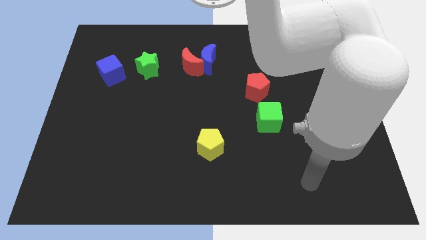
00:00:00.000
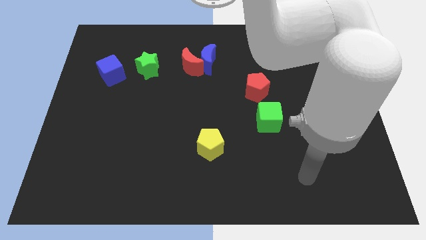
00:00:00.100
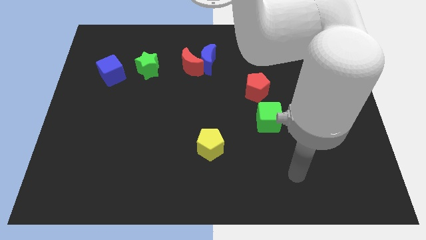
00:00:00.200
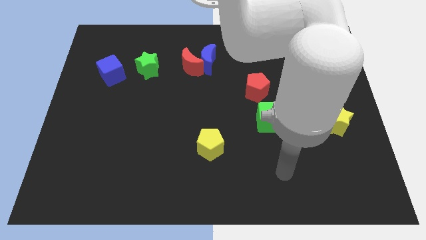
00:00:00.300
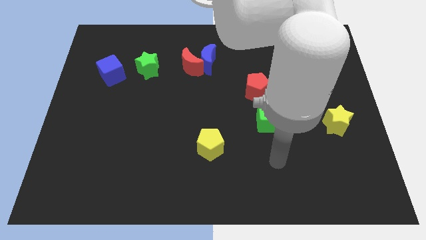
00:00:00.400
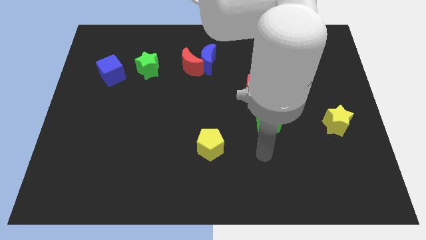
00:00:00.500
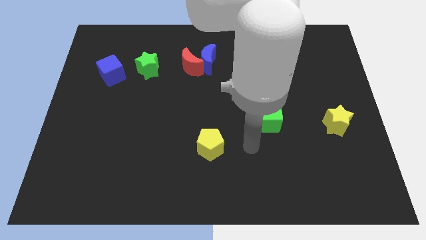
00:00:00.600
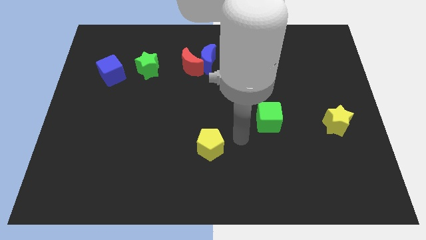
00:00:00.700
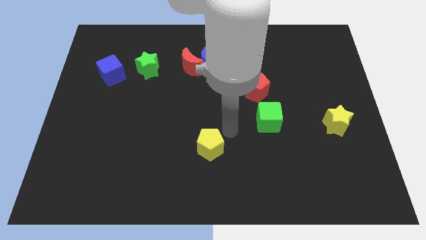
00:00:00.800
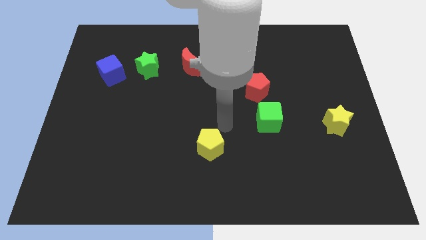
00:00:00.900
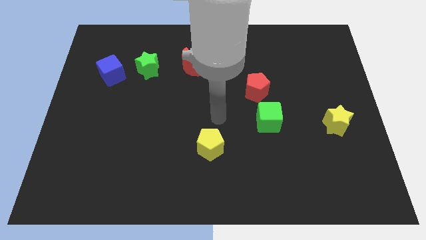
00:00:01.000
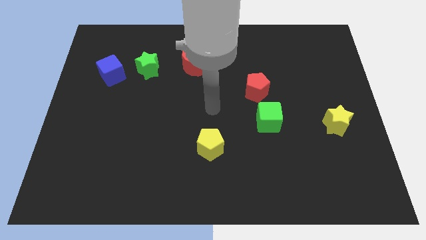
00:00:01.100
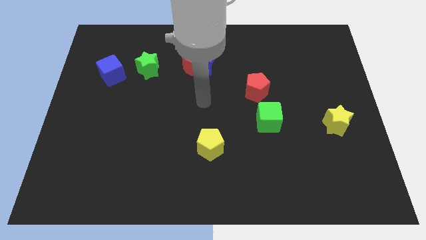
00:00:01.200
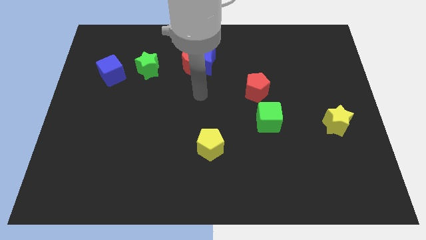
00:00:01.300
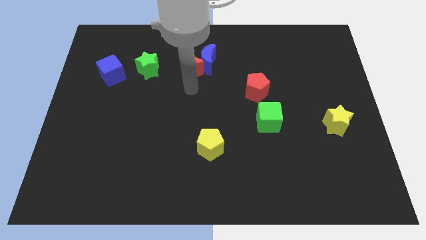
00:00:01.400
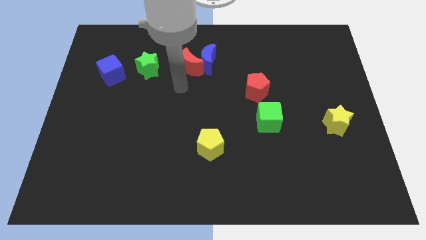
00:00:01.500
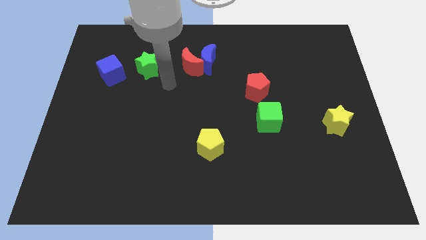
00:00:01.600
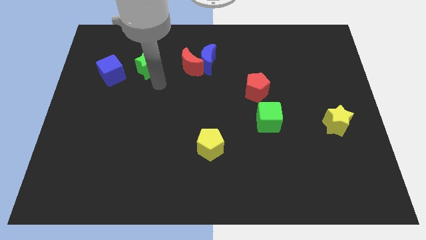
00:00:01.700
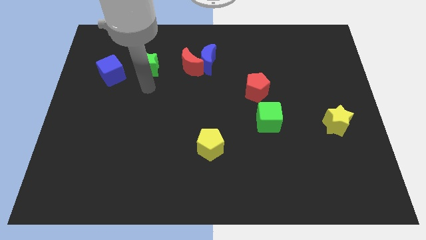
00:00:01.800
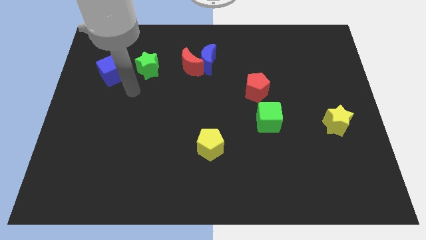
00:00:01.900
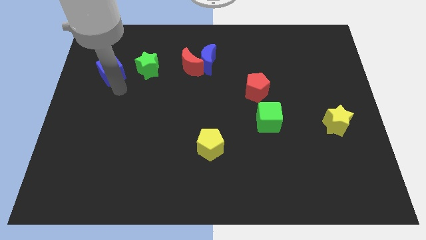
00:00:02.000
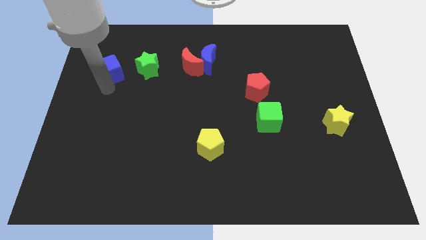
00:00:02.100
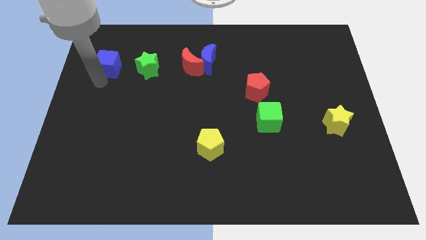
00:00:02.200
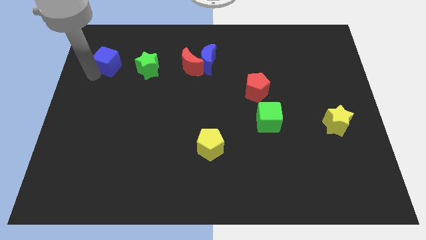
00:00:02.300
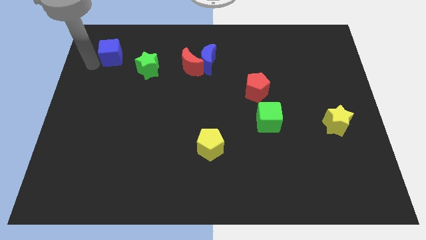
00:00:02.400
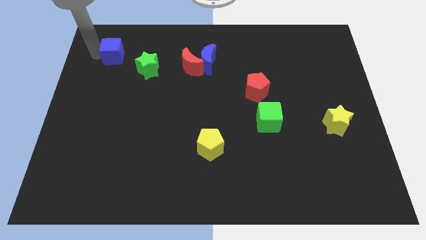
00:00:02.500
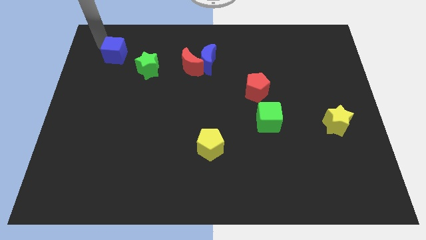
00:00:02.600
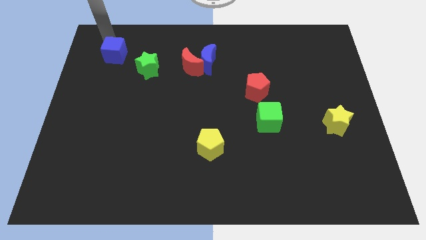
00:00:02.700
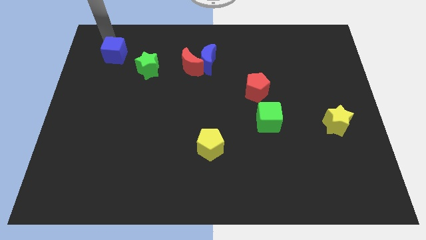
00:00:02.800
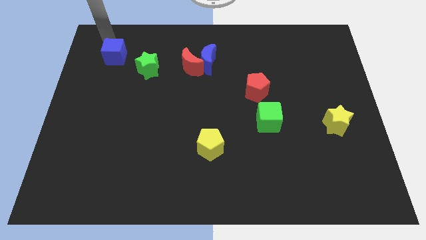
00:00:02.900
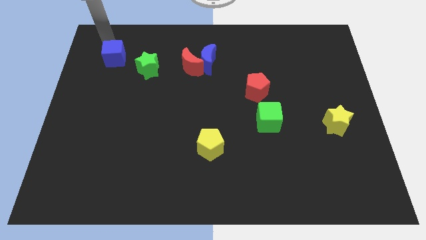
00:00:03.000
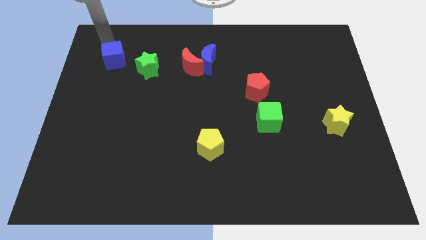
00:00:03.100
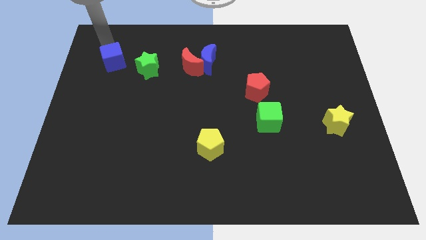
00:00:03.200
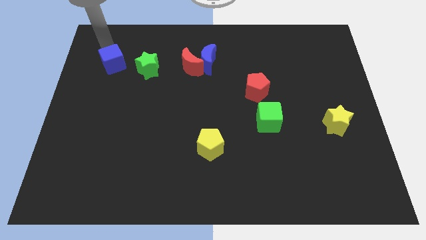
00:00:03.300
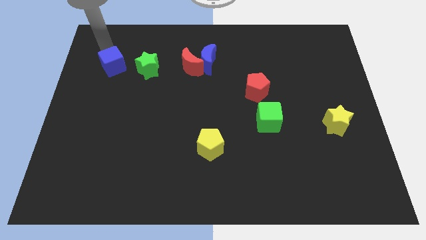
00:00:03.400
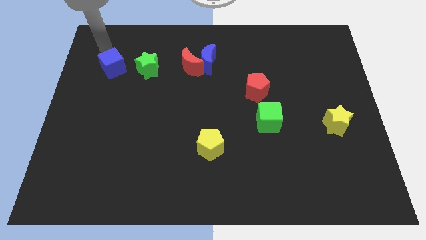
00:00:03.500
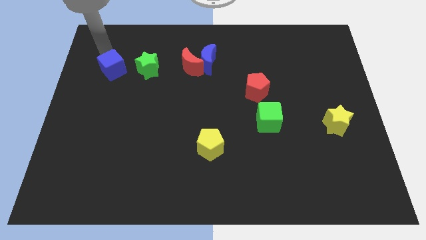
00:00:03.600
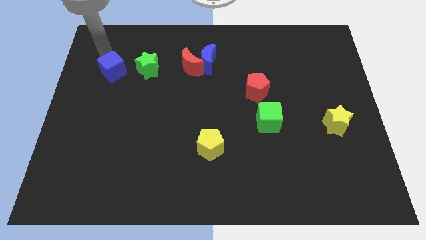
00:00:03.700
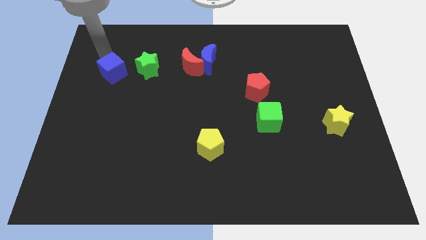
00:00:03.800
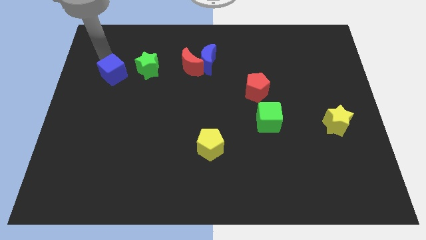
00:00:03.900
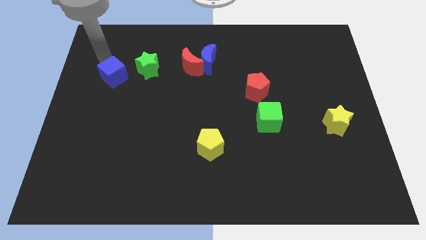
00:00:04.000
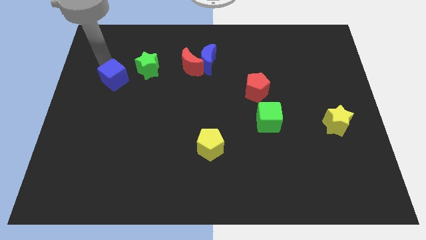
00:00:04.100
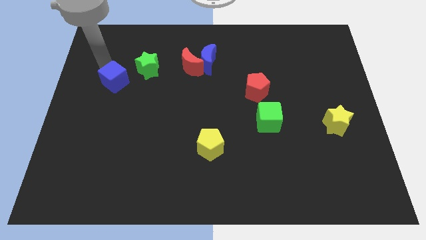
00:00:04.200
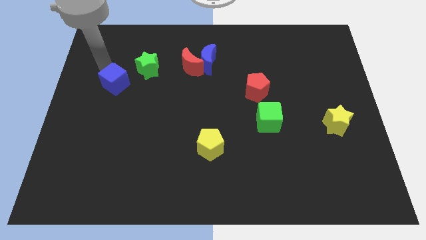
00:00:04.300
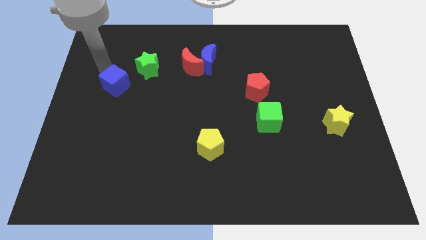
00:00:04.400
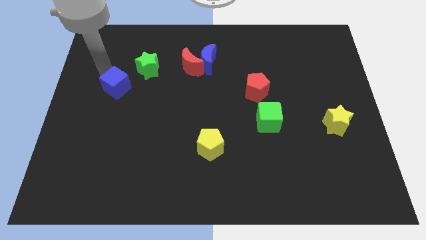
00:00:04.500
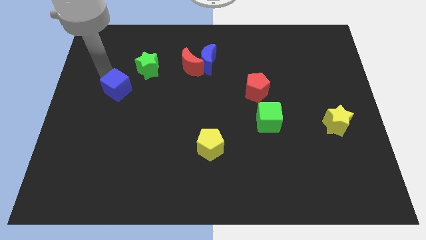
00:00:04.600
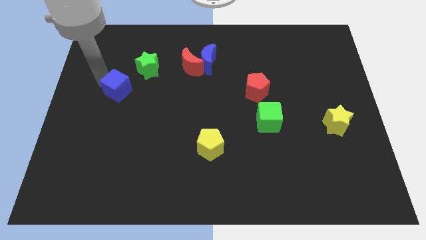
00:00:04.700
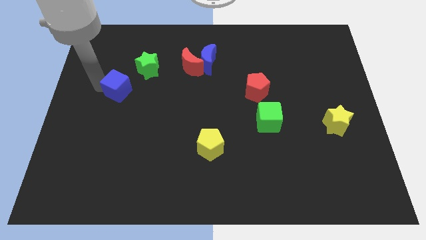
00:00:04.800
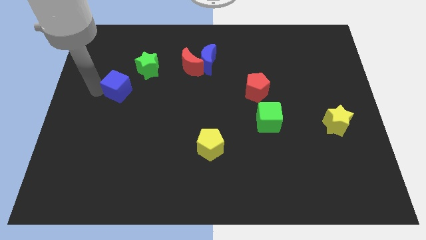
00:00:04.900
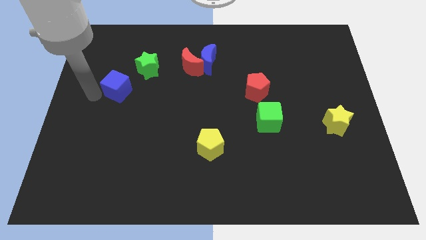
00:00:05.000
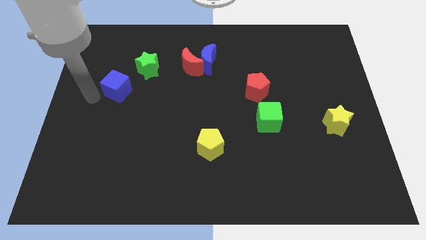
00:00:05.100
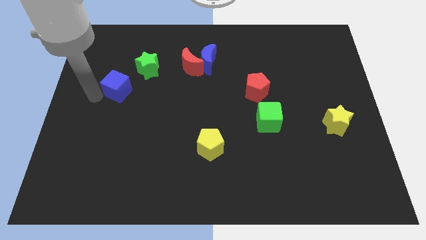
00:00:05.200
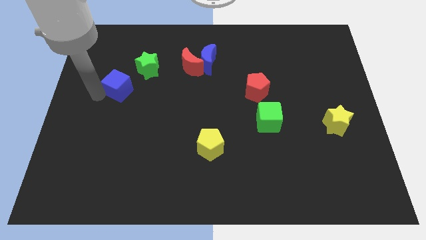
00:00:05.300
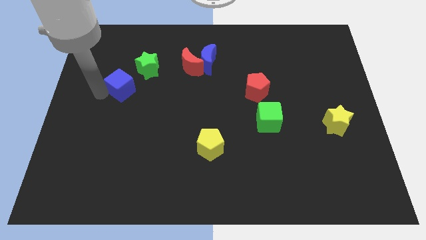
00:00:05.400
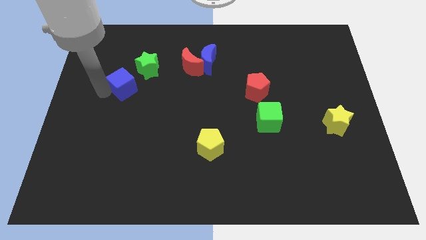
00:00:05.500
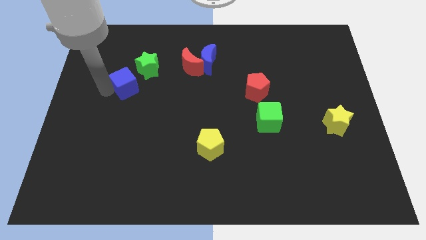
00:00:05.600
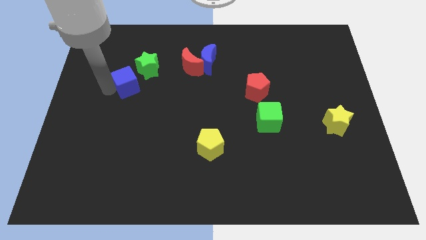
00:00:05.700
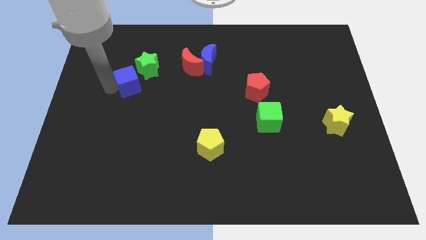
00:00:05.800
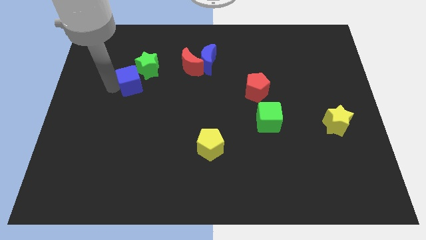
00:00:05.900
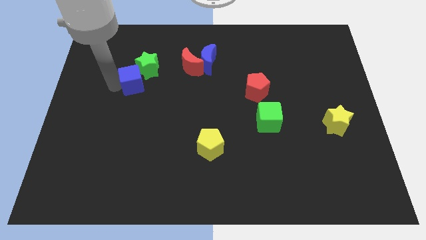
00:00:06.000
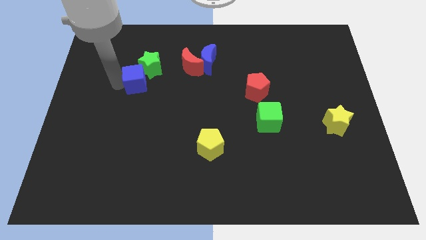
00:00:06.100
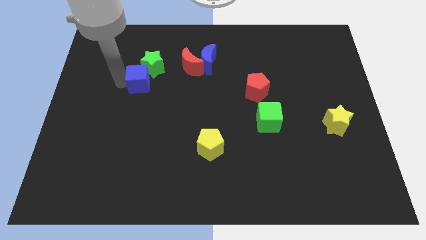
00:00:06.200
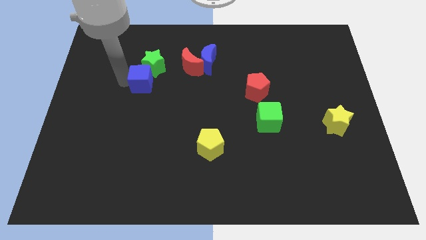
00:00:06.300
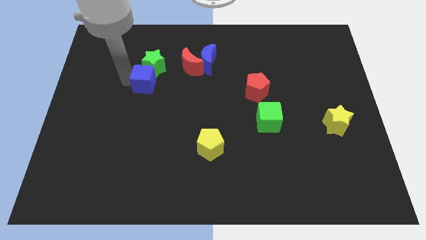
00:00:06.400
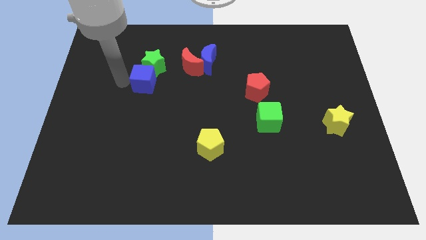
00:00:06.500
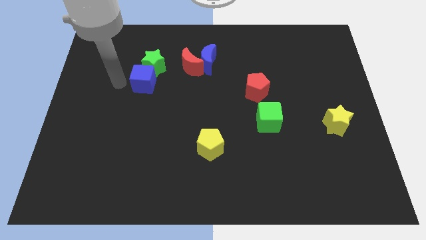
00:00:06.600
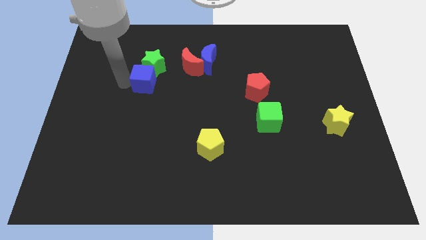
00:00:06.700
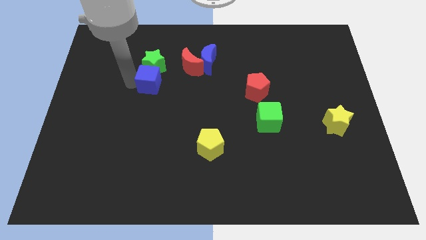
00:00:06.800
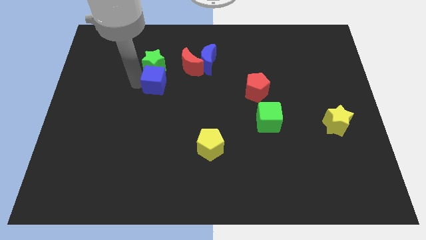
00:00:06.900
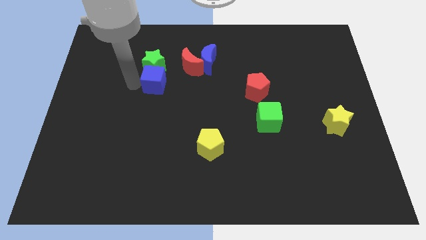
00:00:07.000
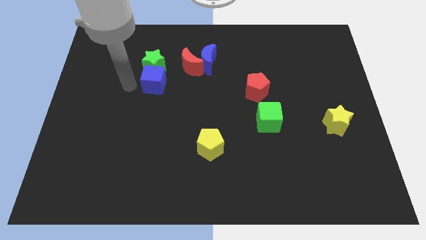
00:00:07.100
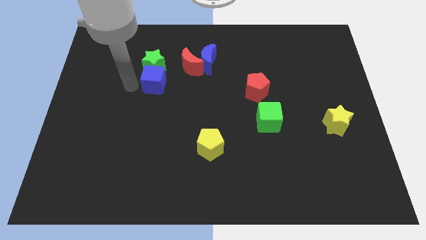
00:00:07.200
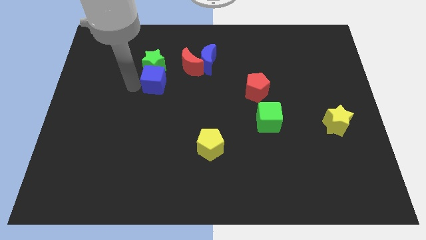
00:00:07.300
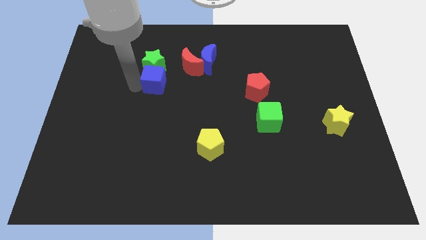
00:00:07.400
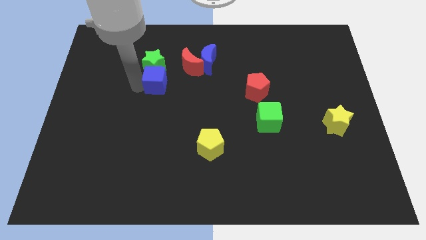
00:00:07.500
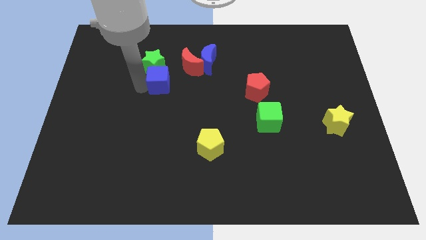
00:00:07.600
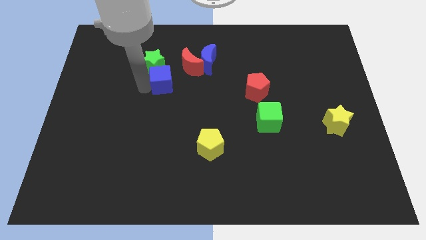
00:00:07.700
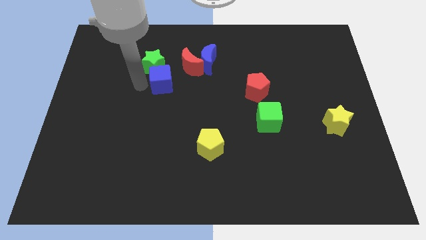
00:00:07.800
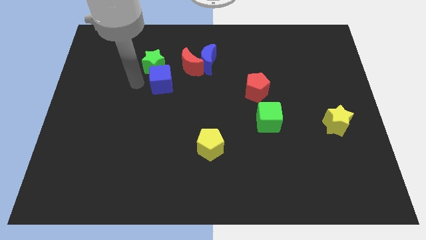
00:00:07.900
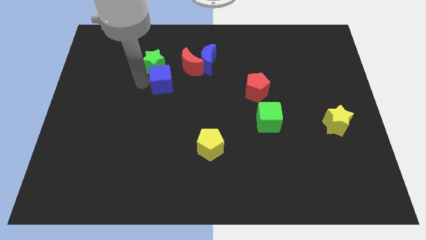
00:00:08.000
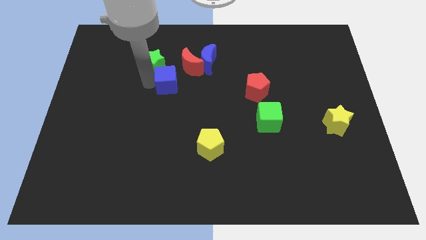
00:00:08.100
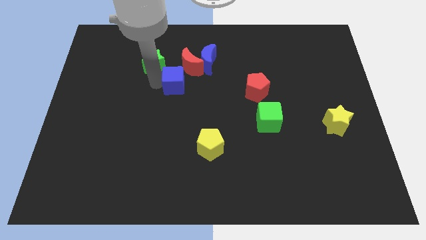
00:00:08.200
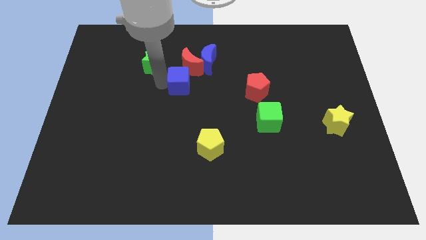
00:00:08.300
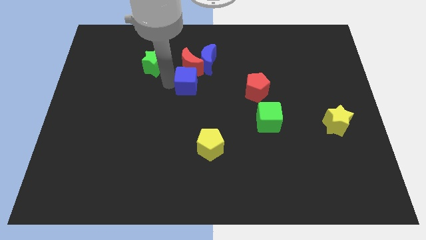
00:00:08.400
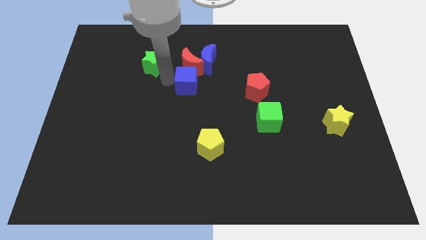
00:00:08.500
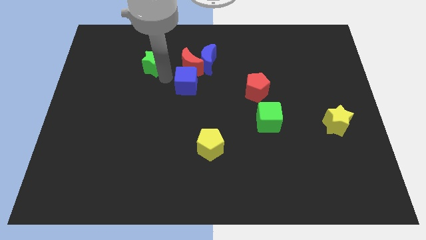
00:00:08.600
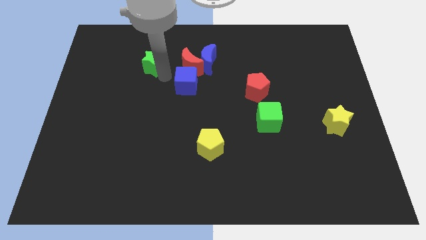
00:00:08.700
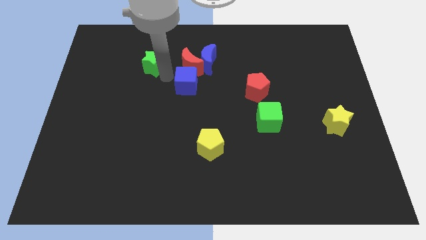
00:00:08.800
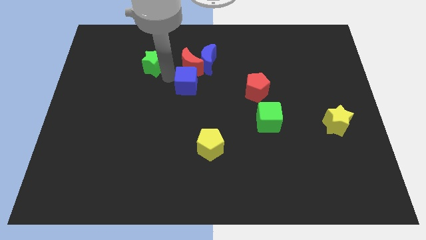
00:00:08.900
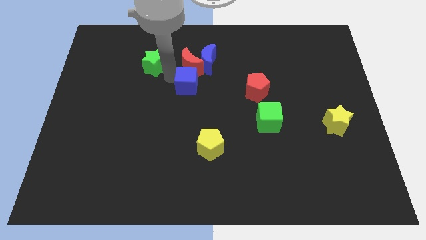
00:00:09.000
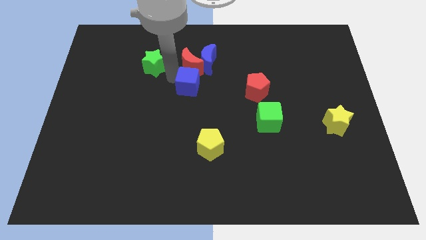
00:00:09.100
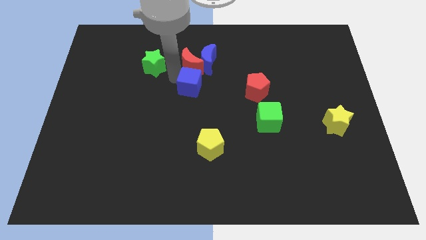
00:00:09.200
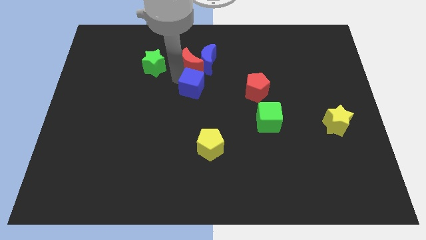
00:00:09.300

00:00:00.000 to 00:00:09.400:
slide the blue cube to the right
